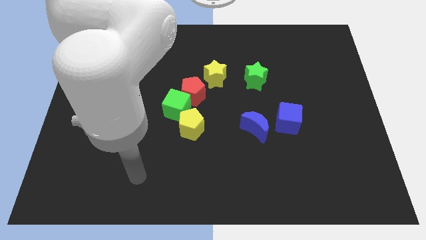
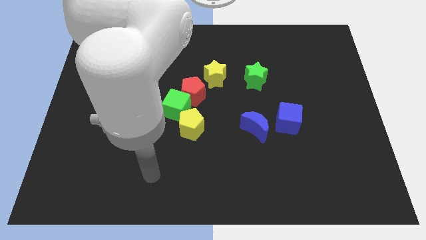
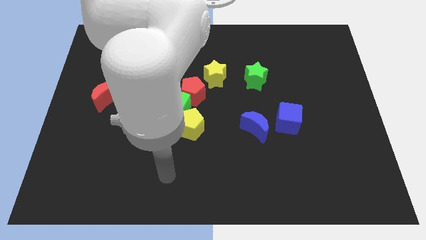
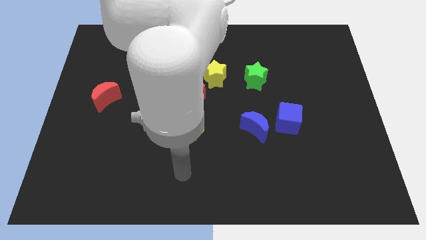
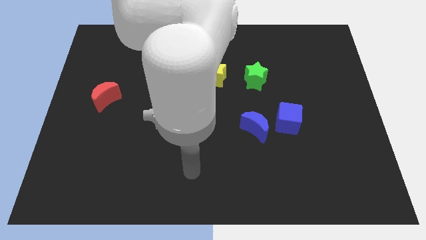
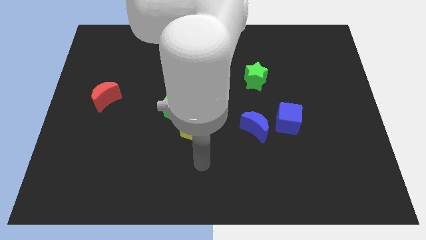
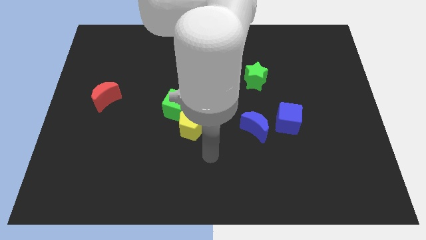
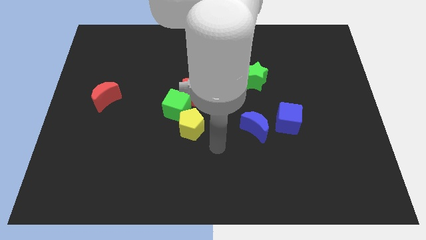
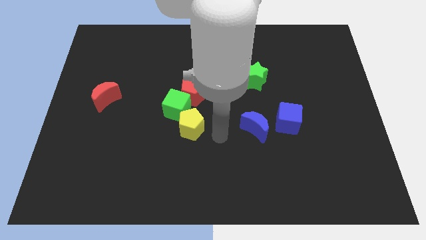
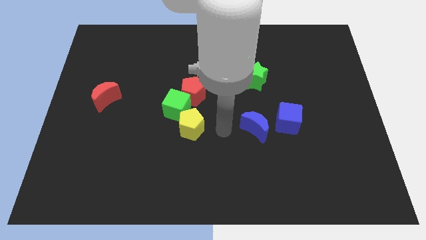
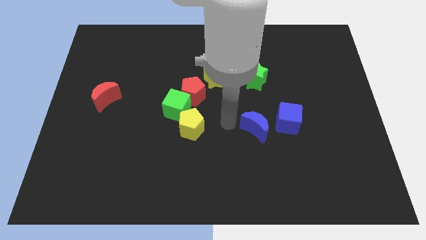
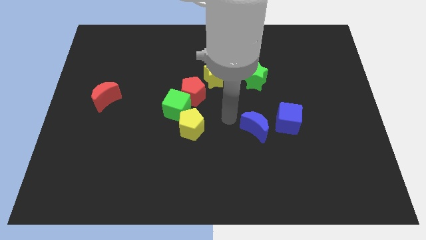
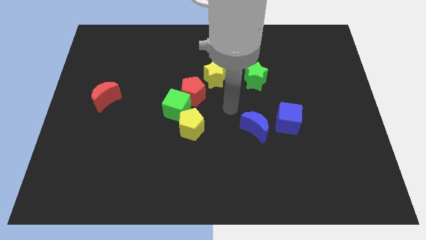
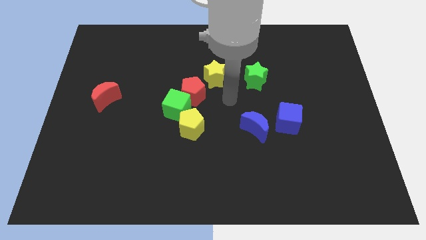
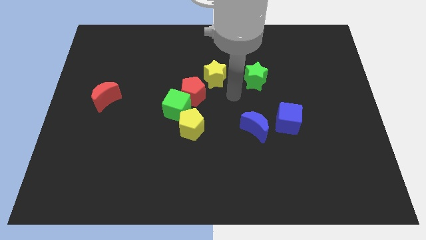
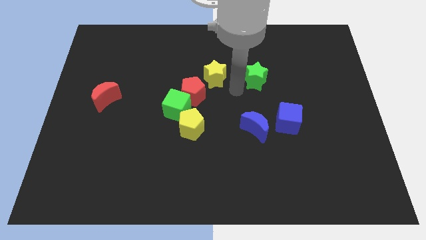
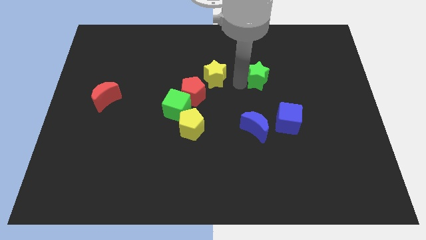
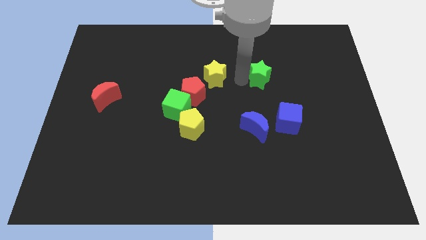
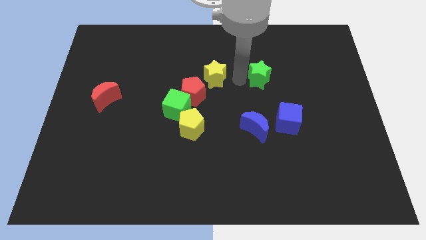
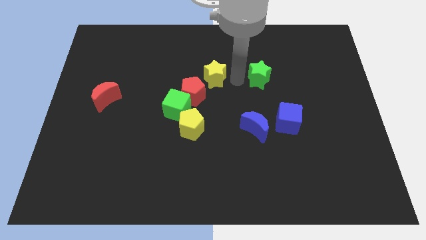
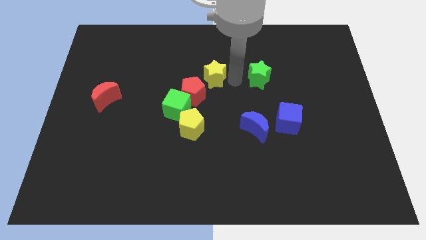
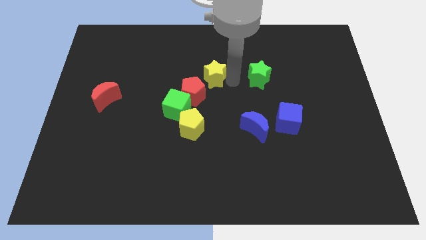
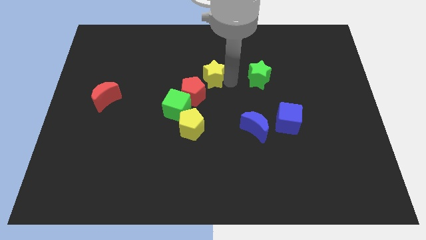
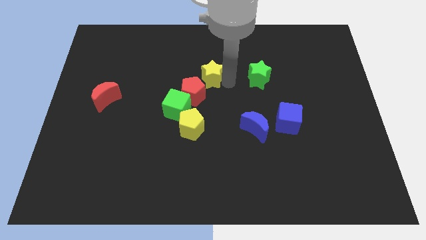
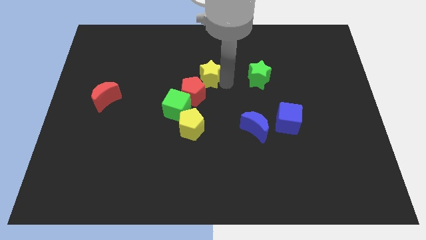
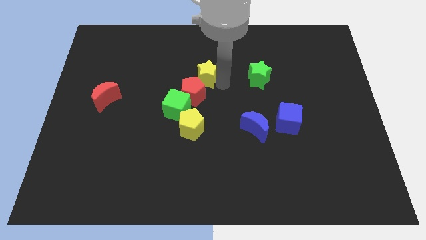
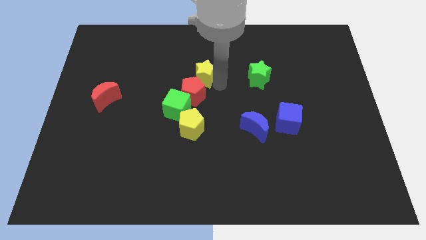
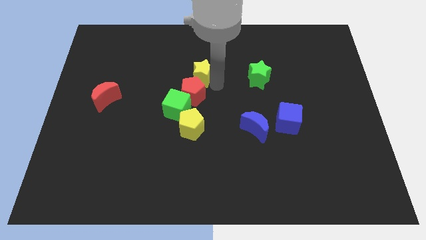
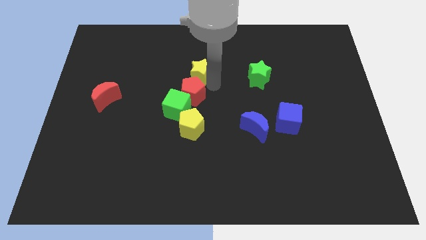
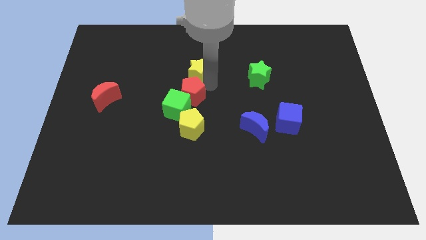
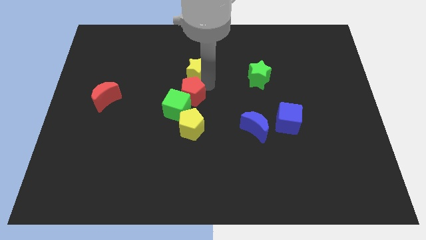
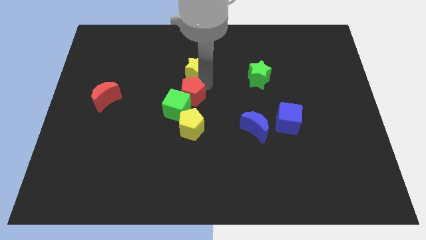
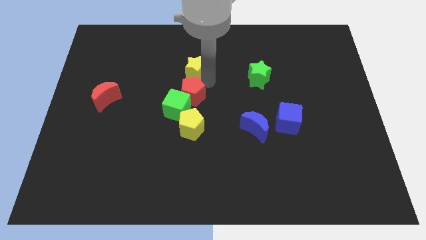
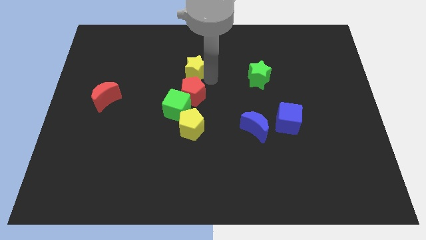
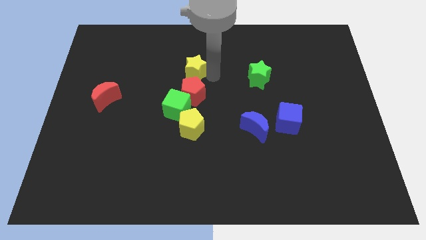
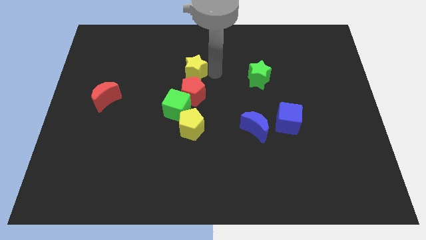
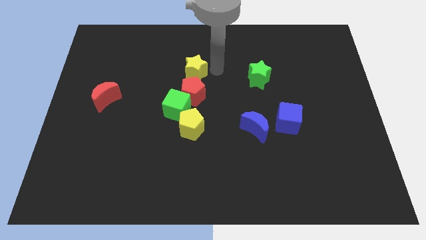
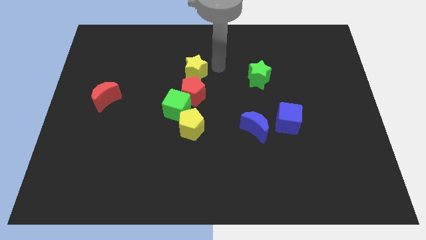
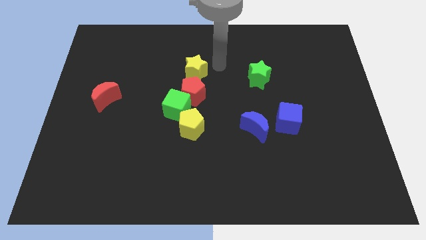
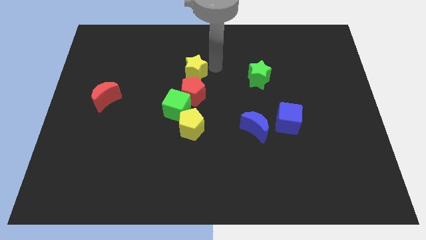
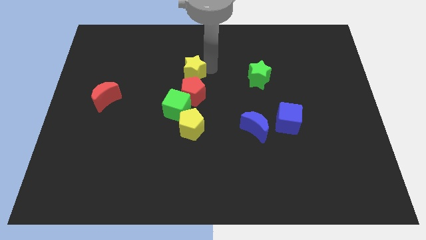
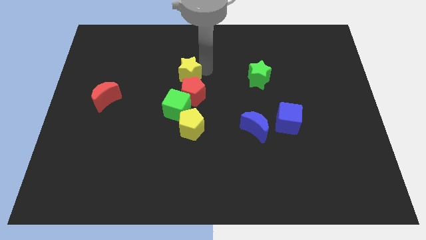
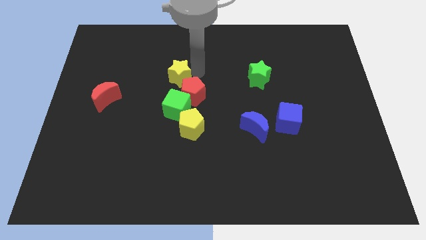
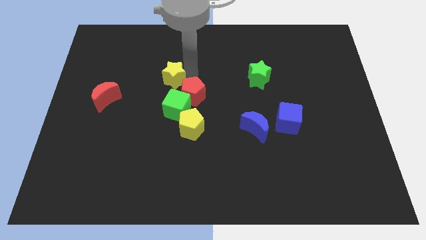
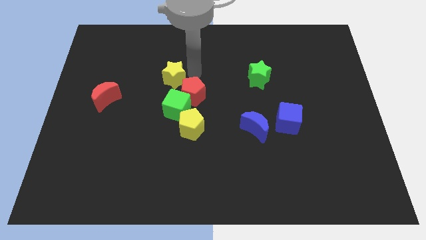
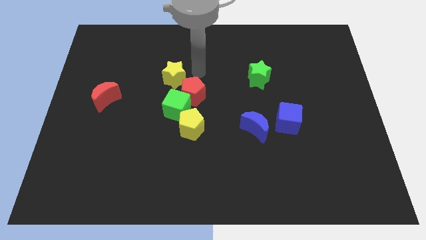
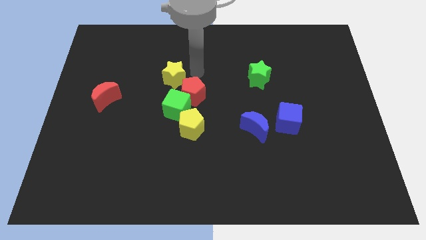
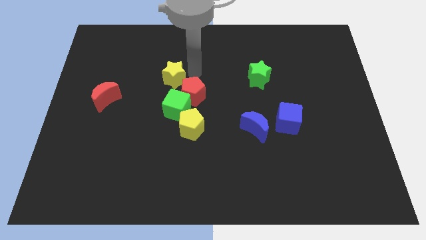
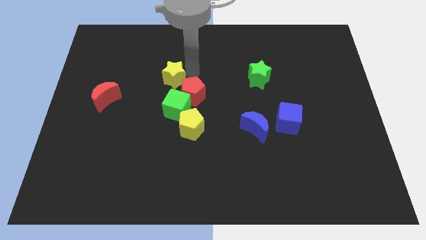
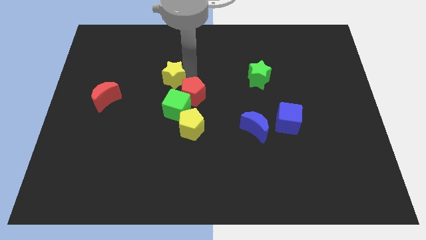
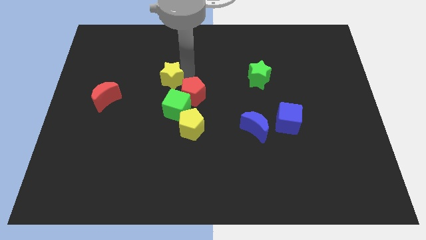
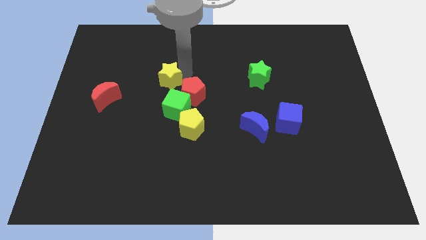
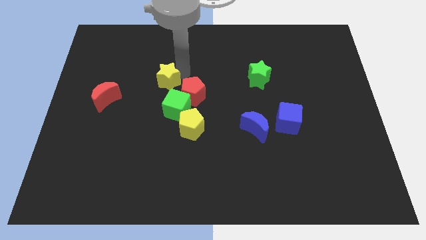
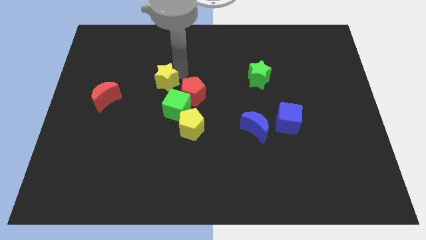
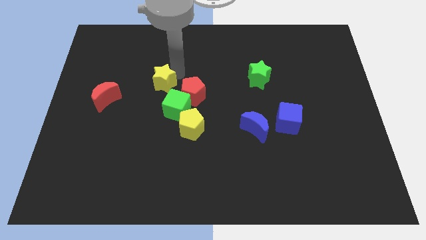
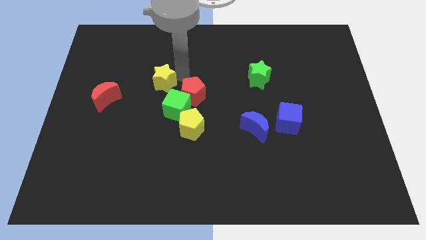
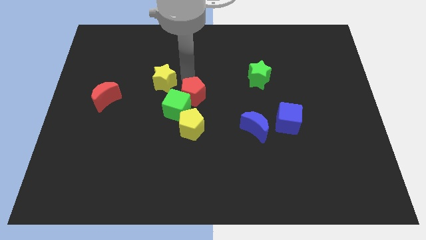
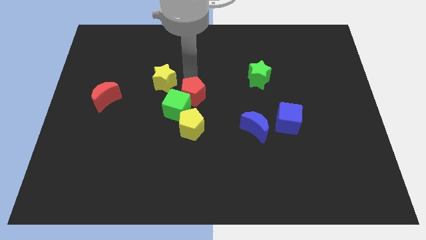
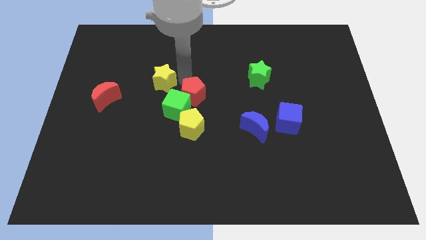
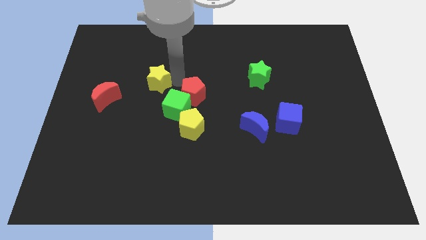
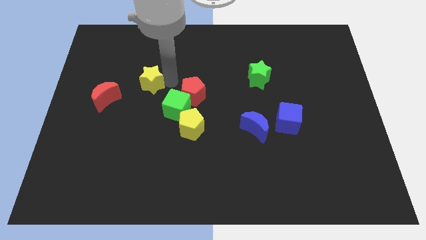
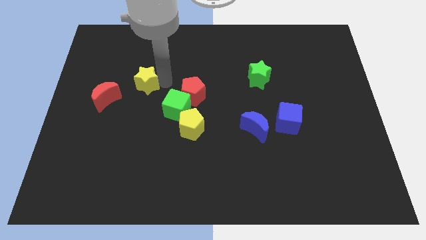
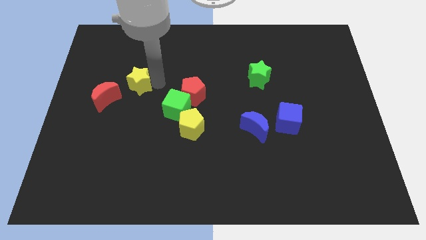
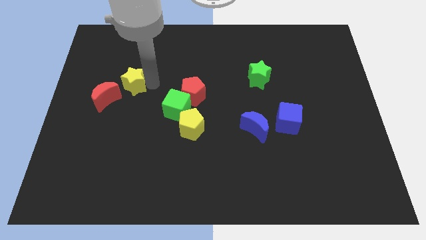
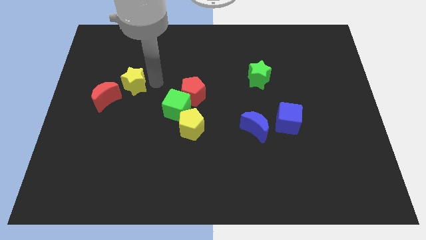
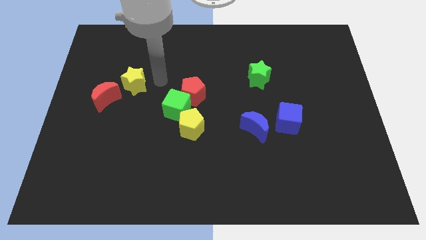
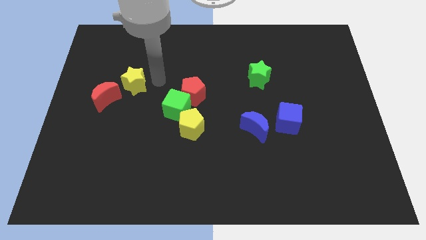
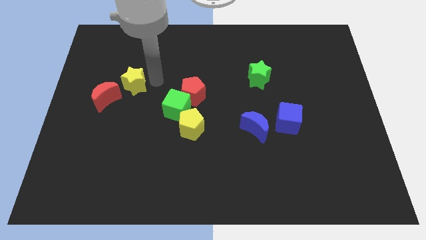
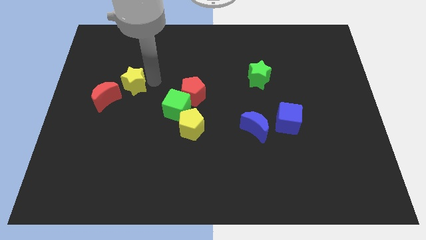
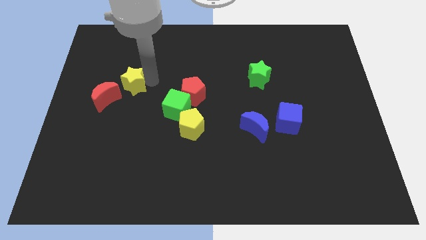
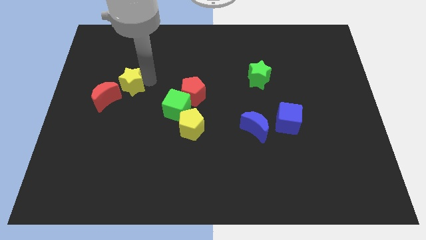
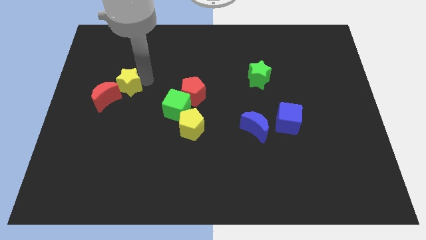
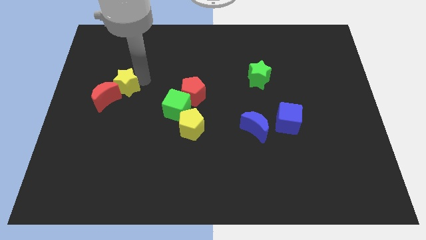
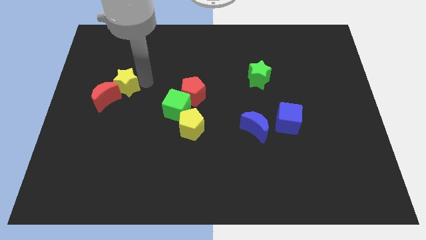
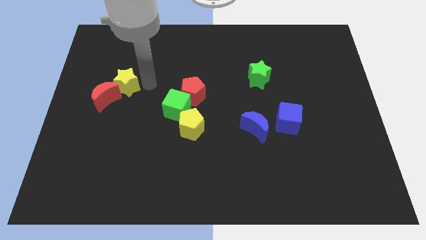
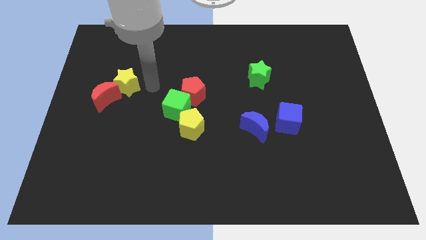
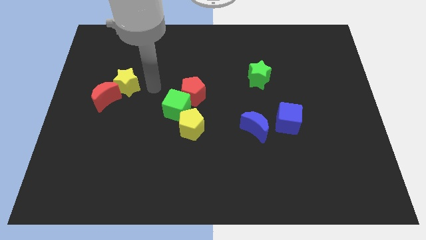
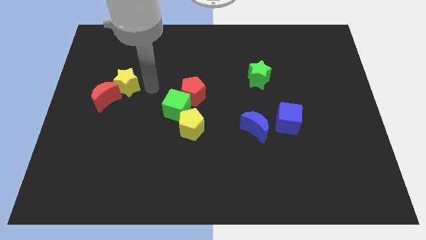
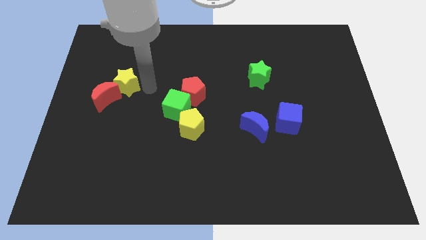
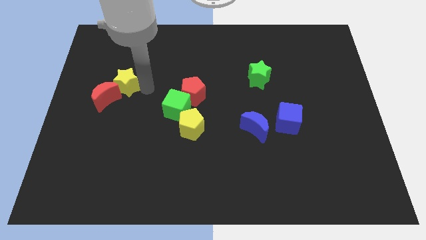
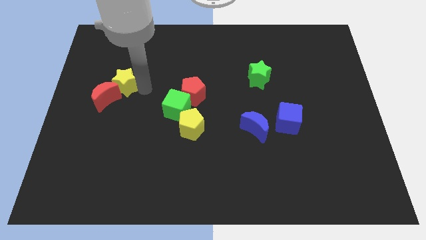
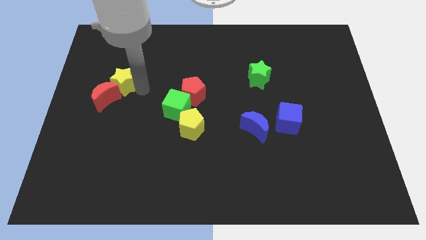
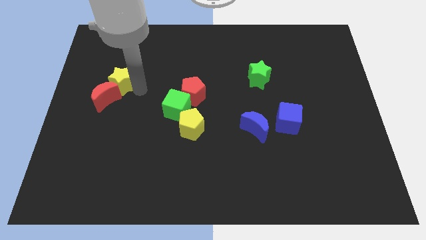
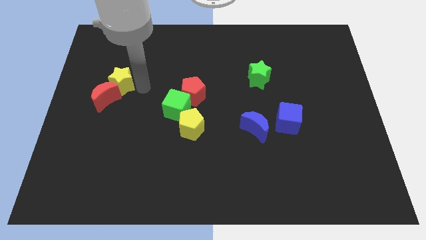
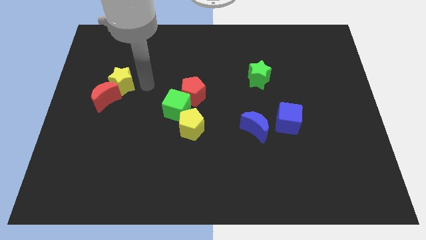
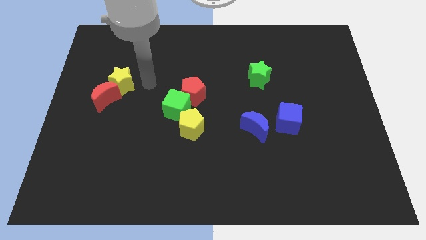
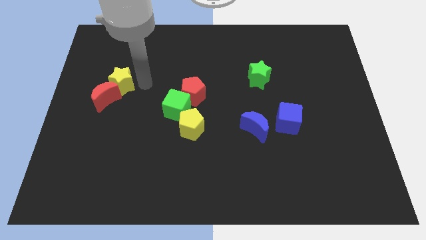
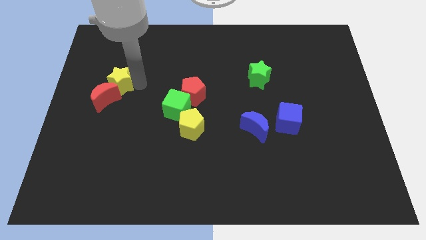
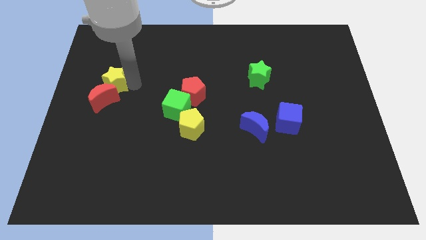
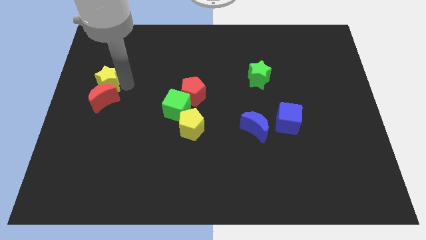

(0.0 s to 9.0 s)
push the yellow star to the left side
